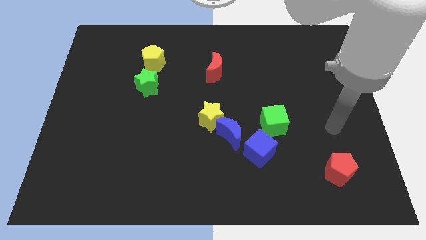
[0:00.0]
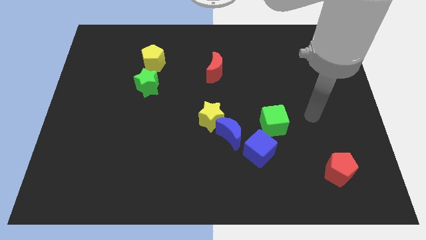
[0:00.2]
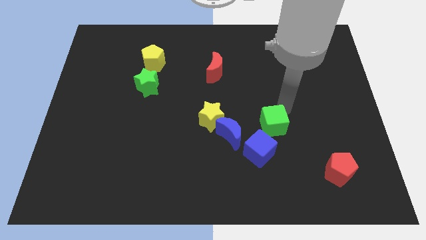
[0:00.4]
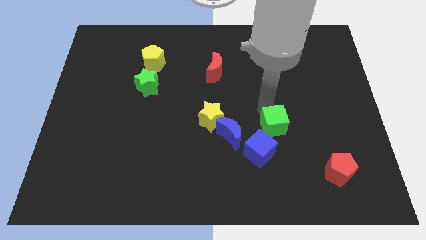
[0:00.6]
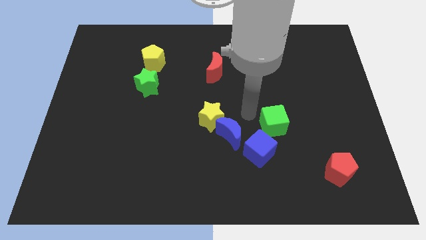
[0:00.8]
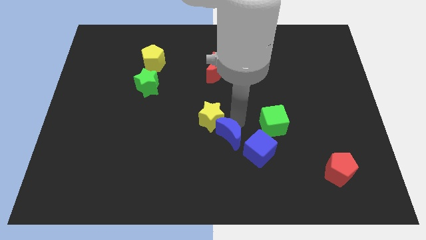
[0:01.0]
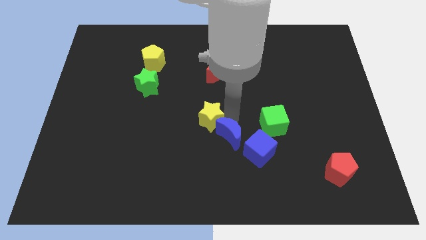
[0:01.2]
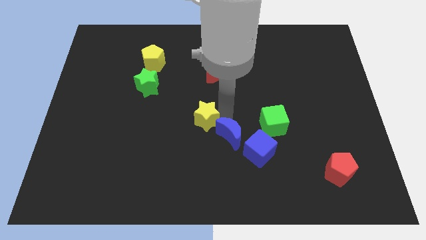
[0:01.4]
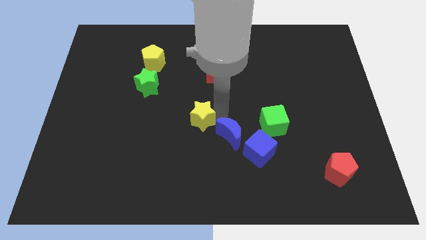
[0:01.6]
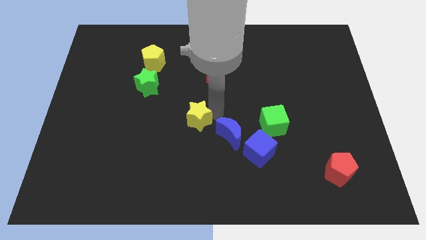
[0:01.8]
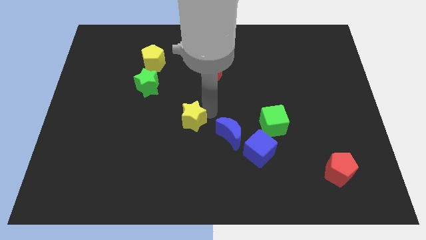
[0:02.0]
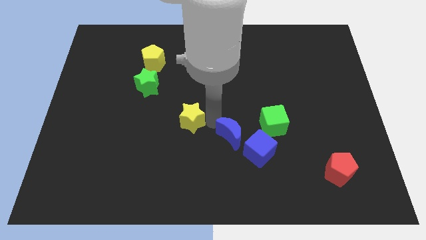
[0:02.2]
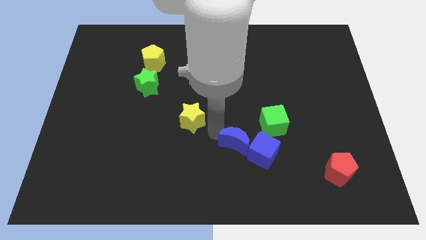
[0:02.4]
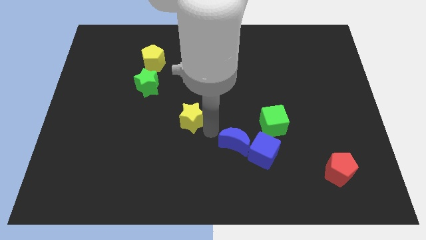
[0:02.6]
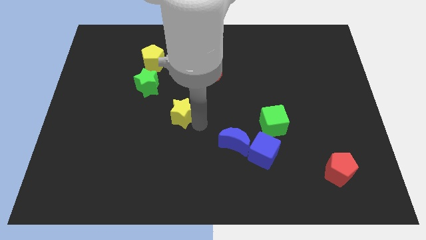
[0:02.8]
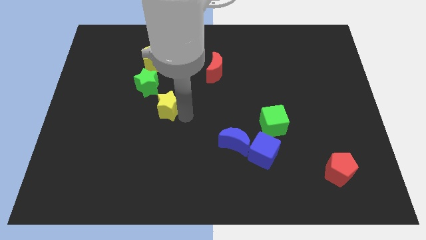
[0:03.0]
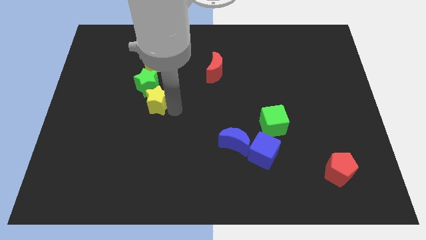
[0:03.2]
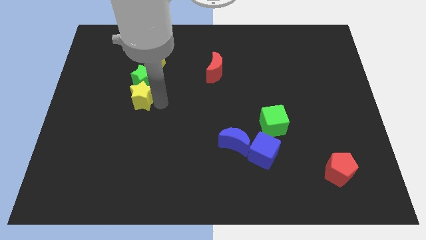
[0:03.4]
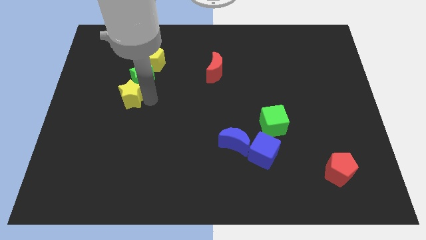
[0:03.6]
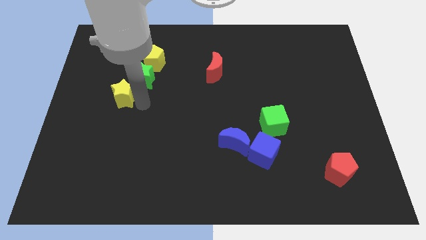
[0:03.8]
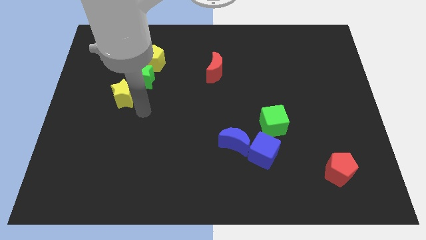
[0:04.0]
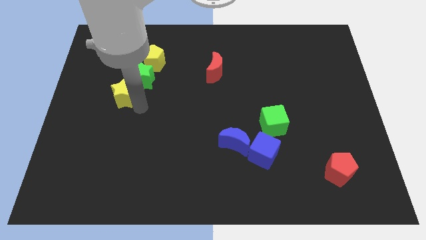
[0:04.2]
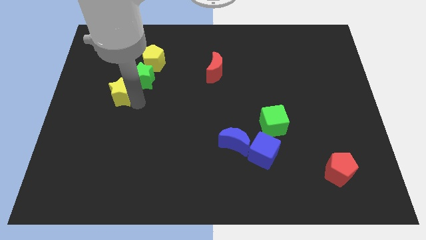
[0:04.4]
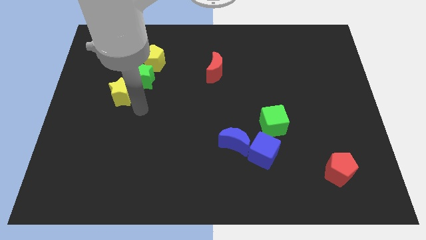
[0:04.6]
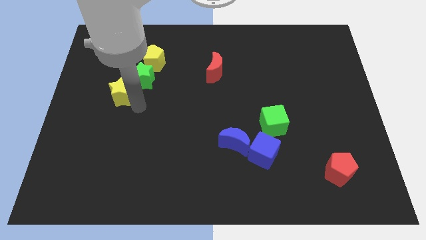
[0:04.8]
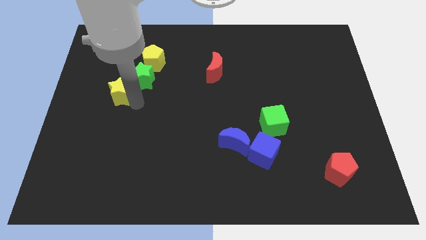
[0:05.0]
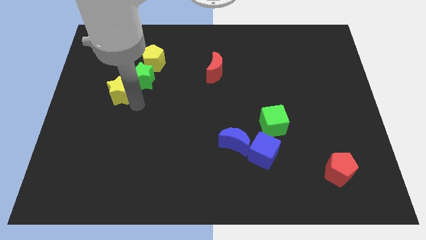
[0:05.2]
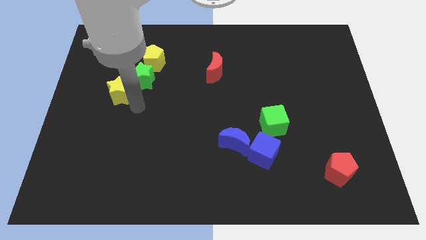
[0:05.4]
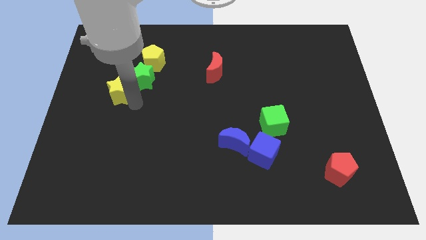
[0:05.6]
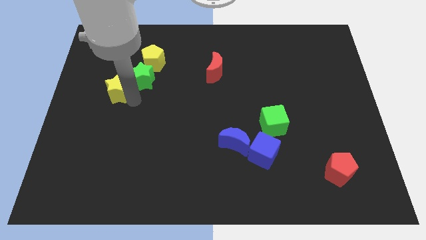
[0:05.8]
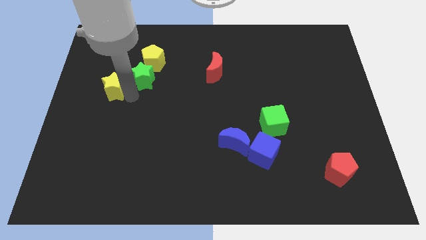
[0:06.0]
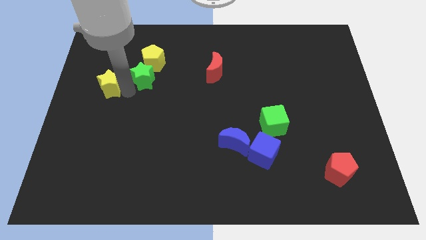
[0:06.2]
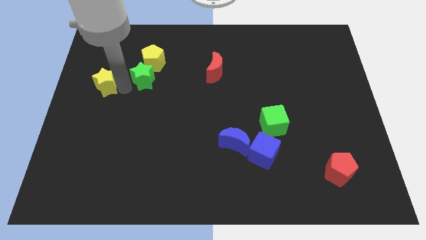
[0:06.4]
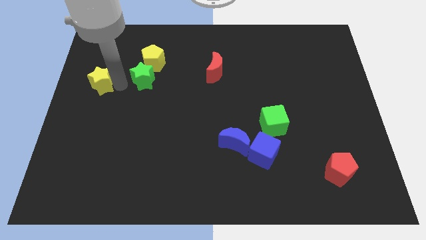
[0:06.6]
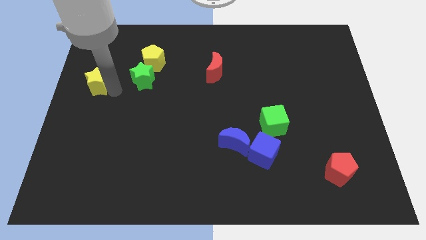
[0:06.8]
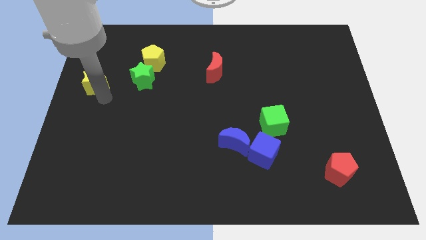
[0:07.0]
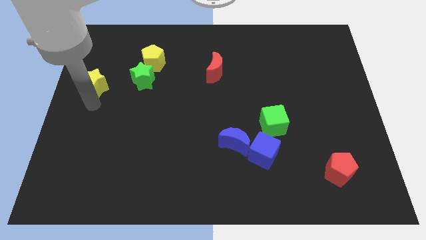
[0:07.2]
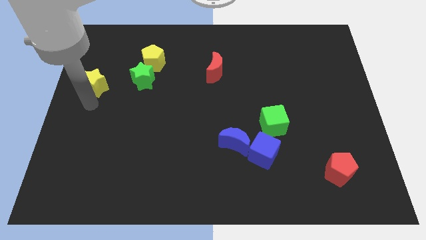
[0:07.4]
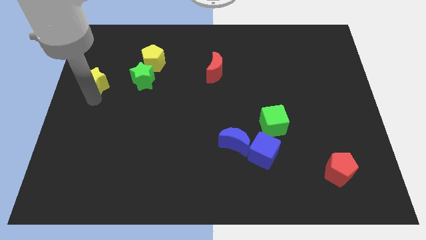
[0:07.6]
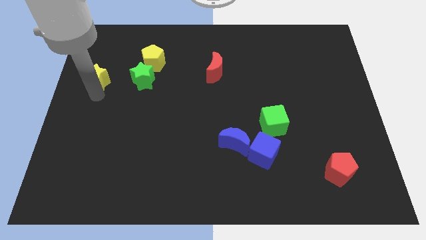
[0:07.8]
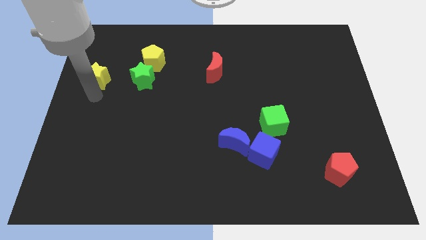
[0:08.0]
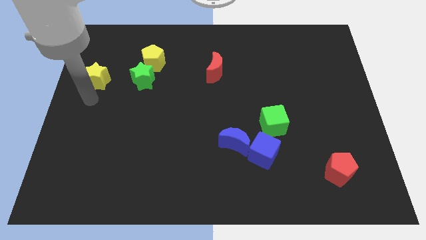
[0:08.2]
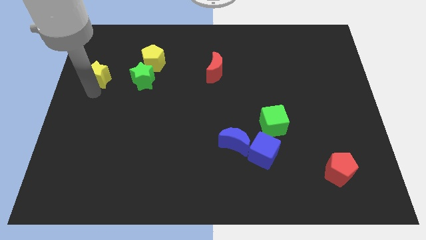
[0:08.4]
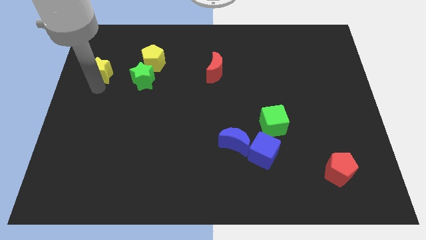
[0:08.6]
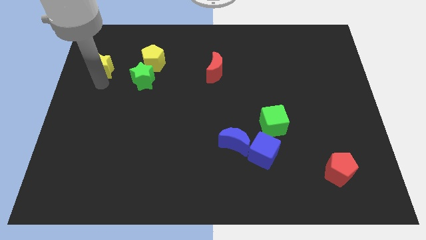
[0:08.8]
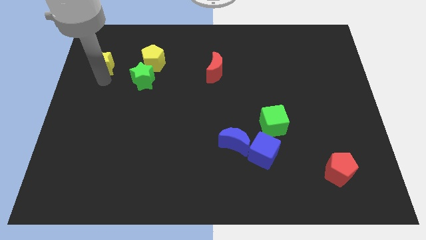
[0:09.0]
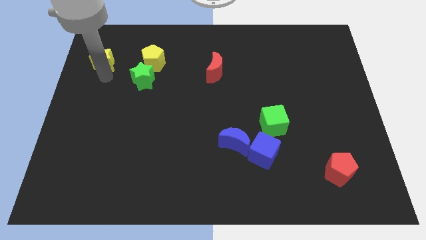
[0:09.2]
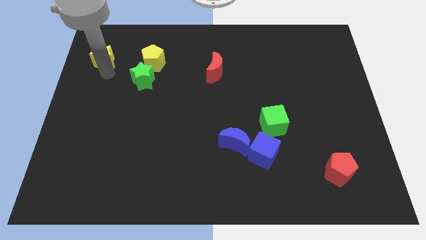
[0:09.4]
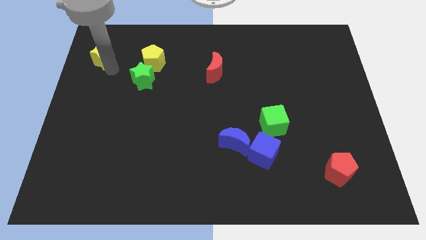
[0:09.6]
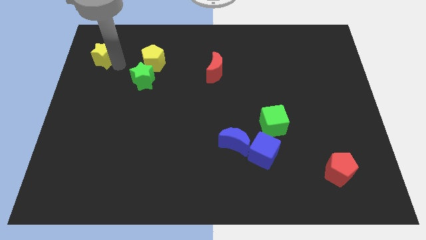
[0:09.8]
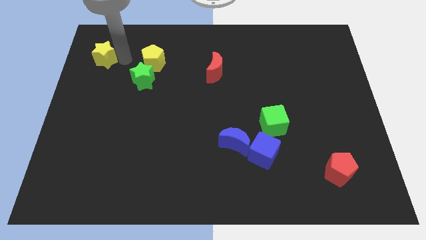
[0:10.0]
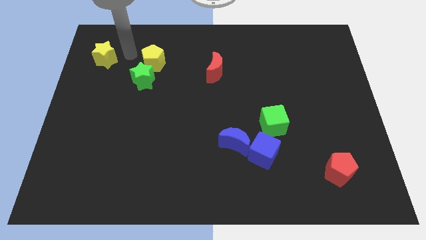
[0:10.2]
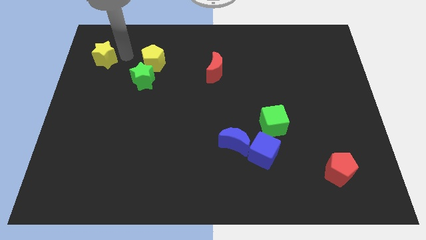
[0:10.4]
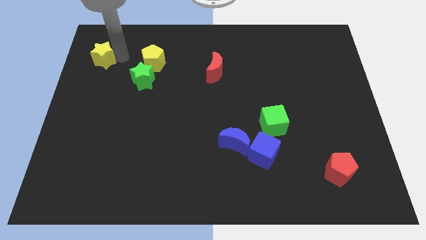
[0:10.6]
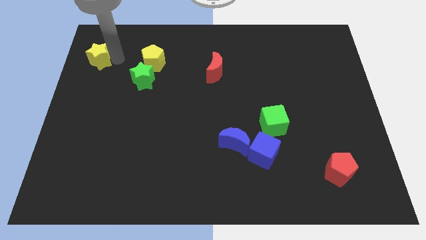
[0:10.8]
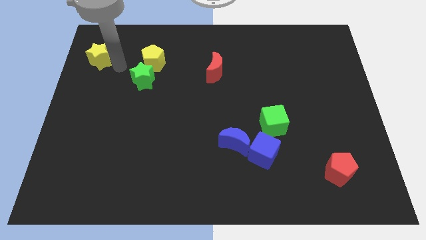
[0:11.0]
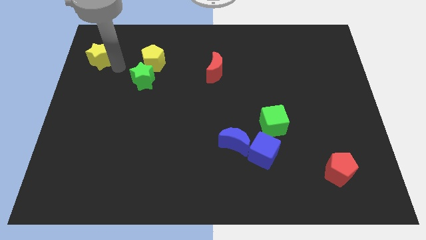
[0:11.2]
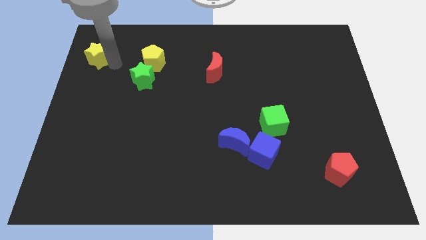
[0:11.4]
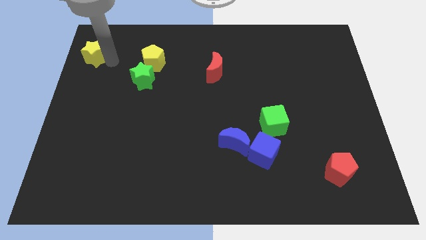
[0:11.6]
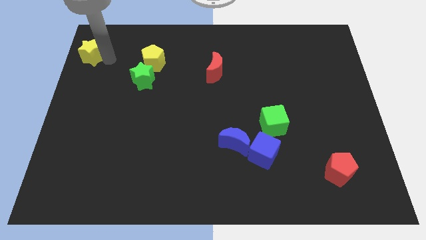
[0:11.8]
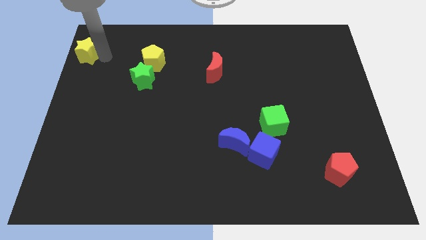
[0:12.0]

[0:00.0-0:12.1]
push the yellow star to the top left of the board
